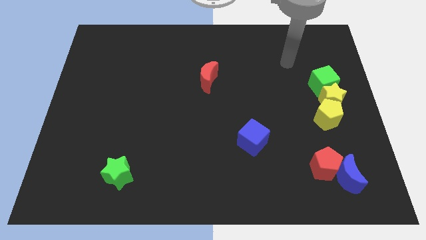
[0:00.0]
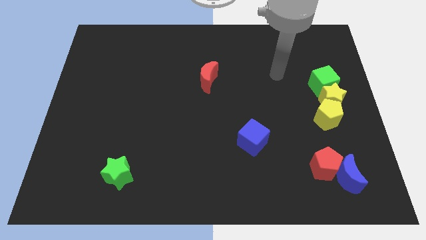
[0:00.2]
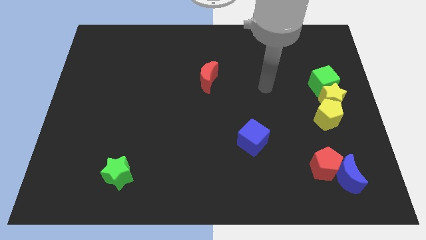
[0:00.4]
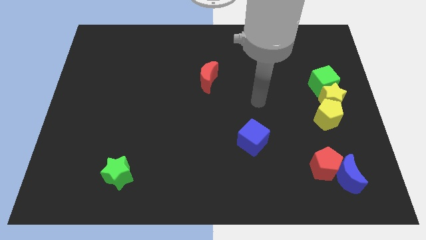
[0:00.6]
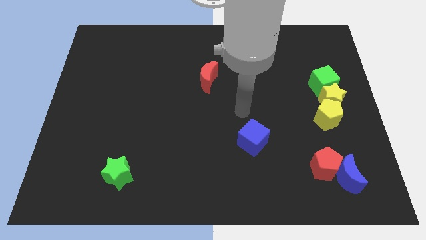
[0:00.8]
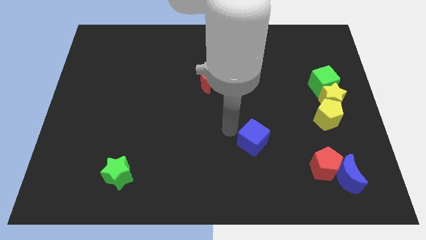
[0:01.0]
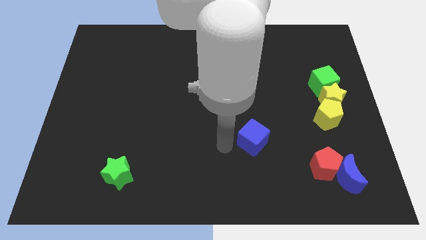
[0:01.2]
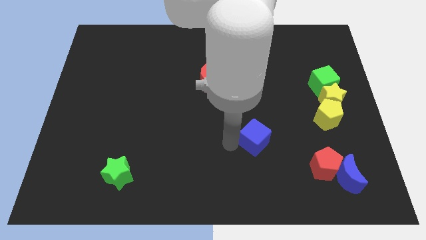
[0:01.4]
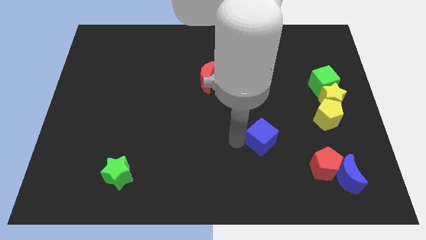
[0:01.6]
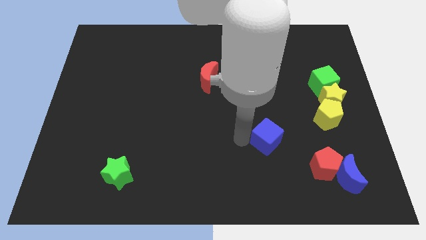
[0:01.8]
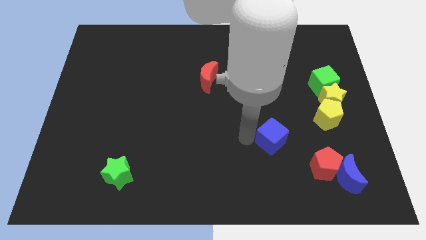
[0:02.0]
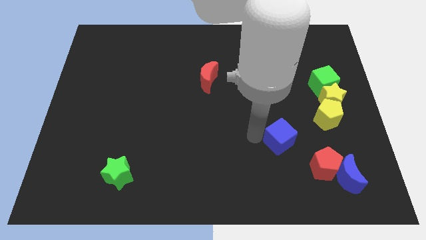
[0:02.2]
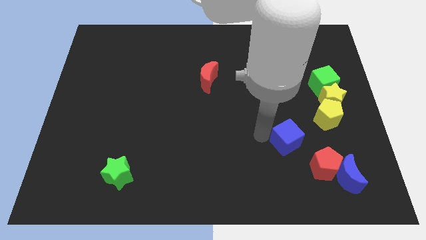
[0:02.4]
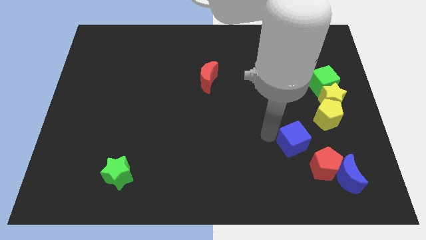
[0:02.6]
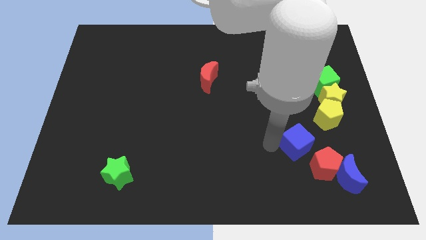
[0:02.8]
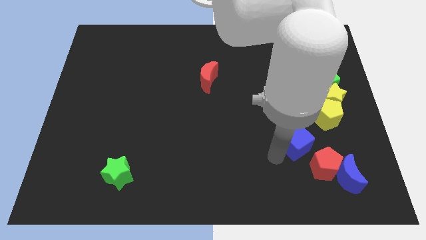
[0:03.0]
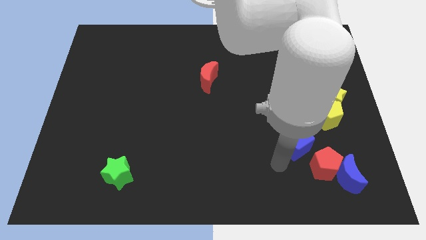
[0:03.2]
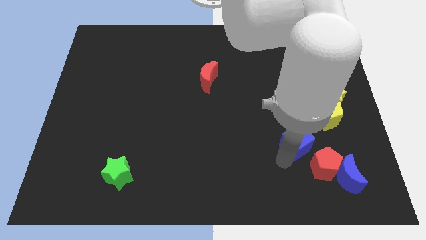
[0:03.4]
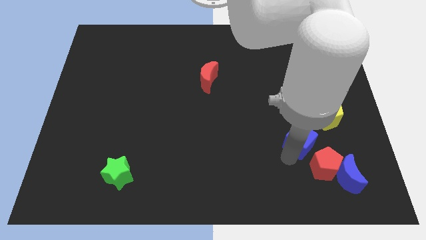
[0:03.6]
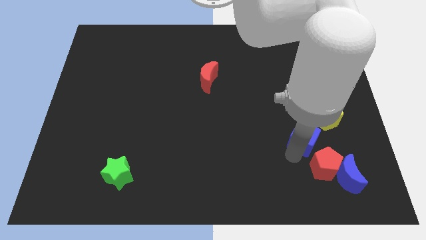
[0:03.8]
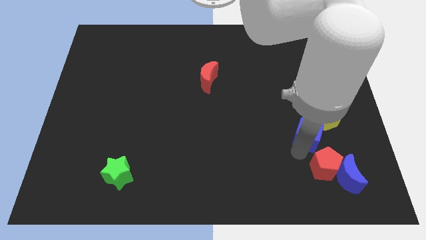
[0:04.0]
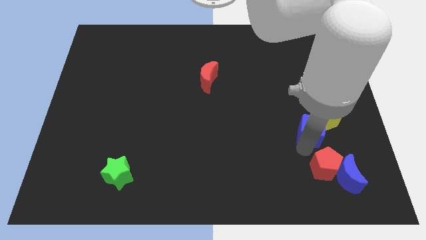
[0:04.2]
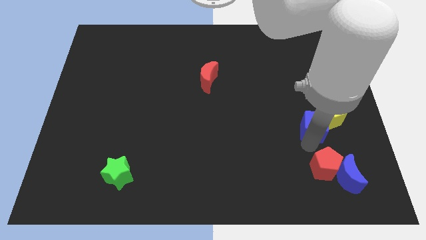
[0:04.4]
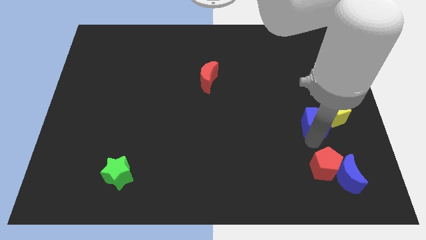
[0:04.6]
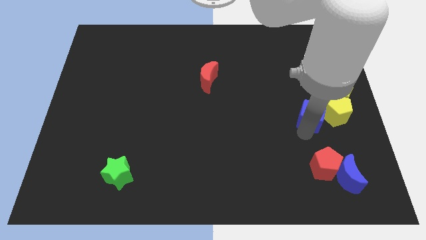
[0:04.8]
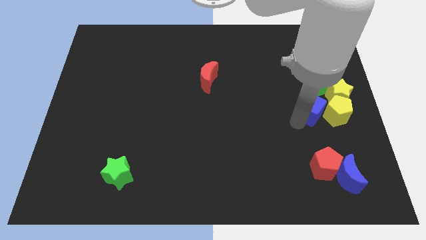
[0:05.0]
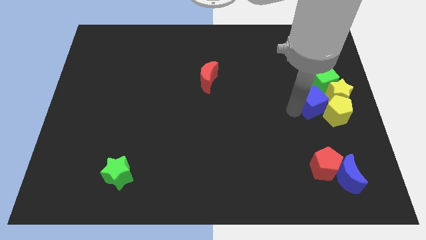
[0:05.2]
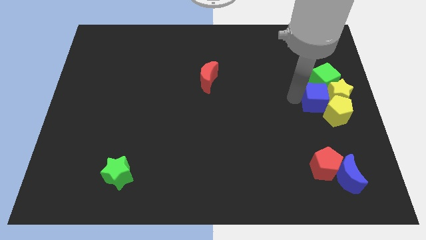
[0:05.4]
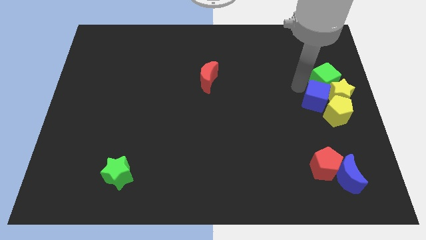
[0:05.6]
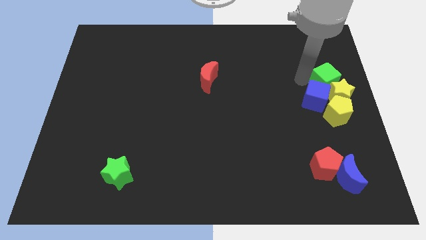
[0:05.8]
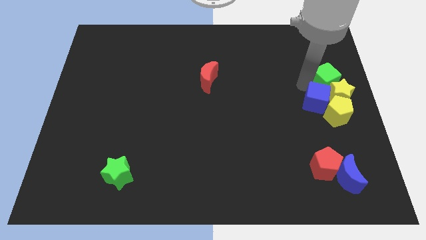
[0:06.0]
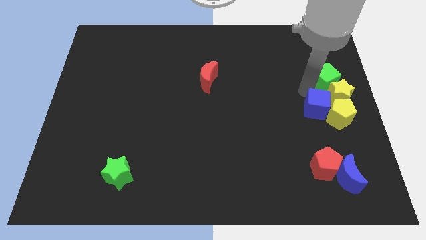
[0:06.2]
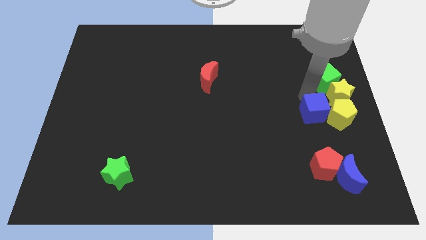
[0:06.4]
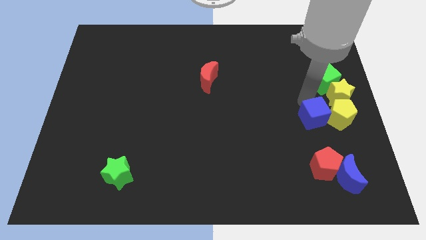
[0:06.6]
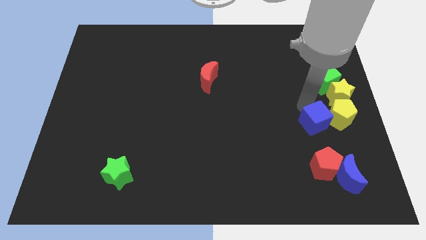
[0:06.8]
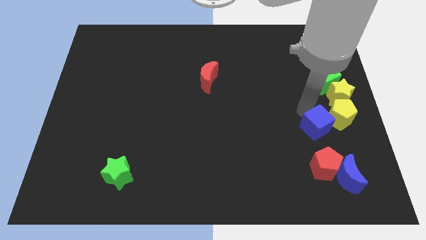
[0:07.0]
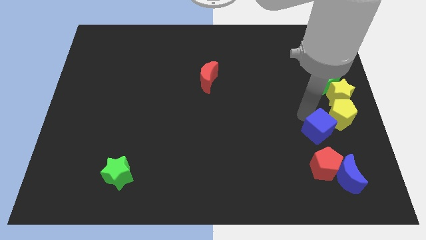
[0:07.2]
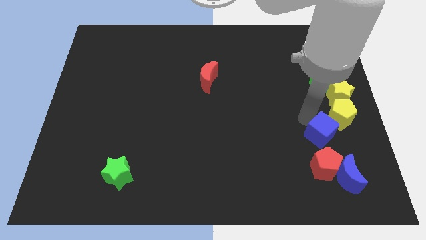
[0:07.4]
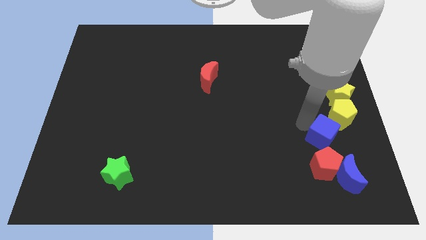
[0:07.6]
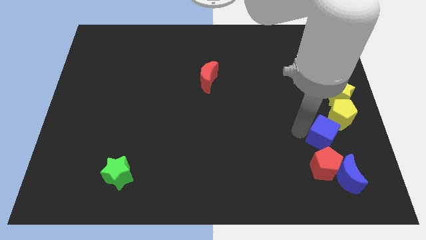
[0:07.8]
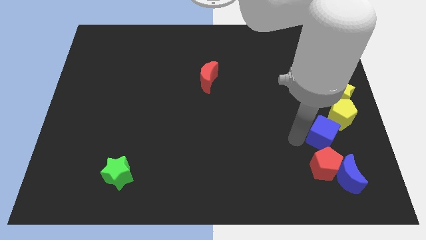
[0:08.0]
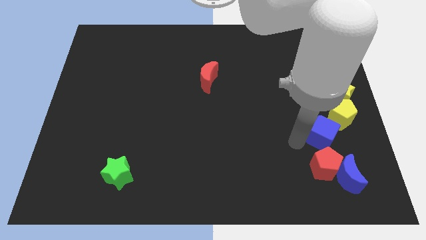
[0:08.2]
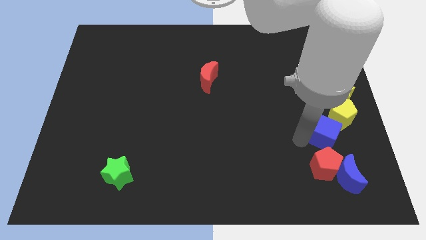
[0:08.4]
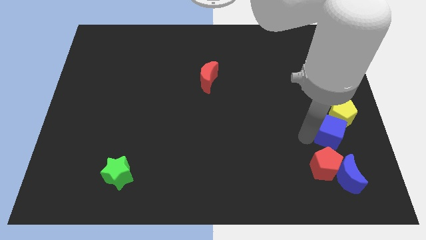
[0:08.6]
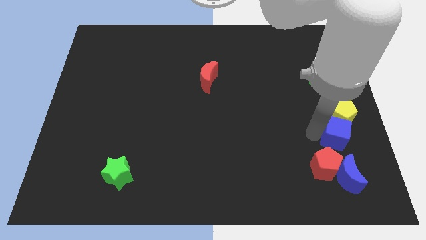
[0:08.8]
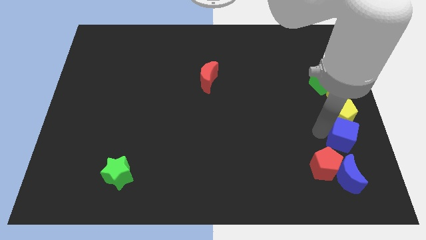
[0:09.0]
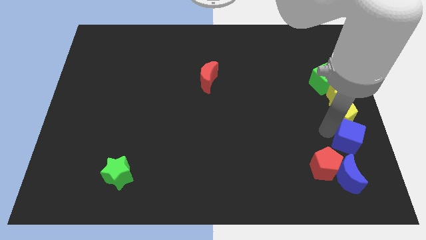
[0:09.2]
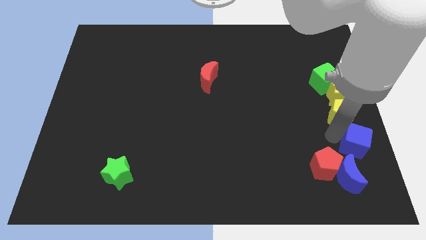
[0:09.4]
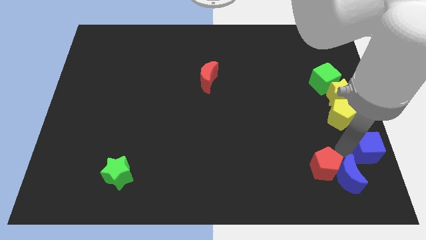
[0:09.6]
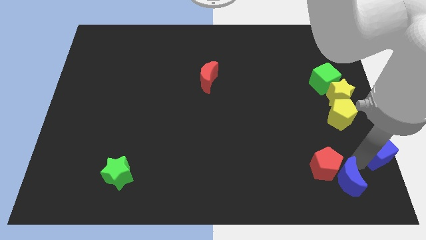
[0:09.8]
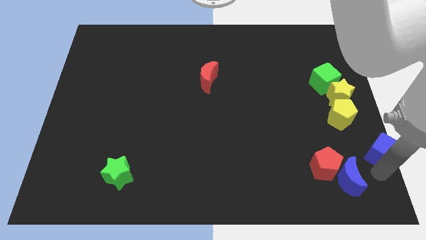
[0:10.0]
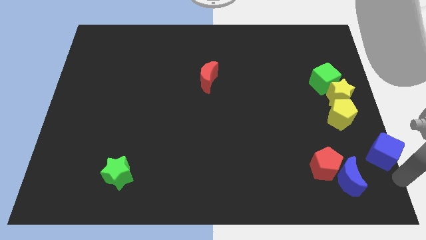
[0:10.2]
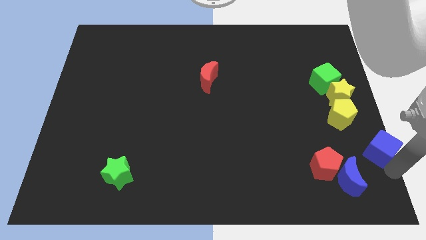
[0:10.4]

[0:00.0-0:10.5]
push the blue cube to the right side of the board
